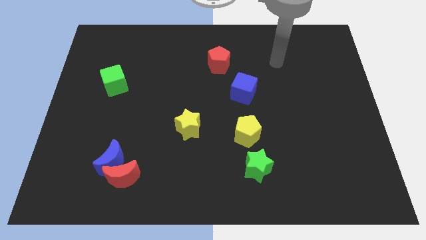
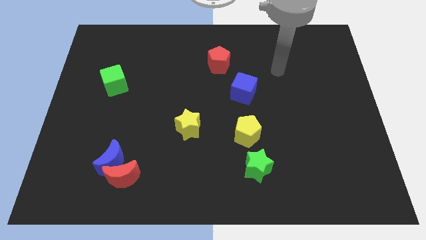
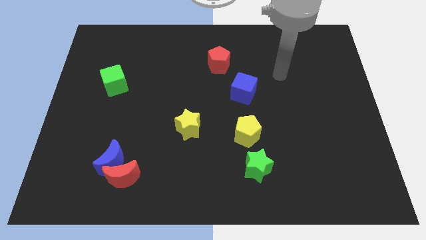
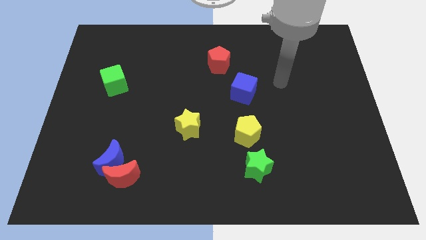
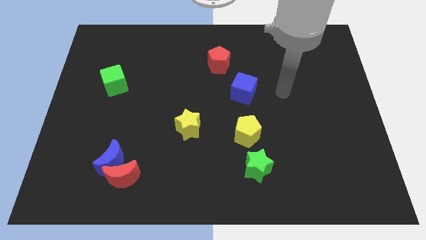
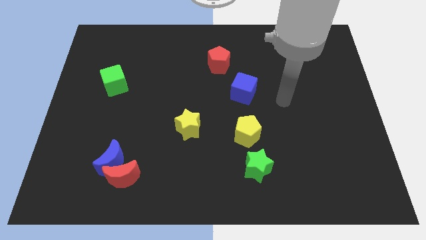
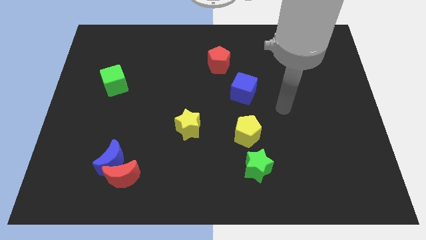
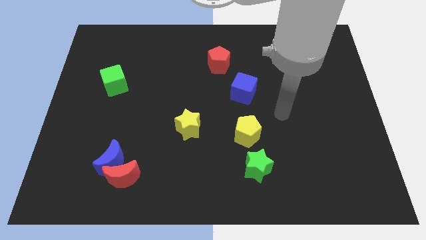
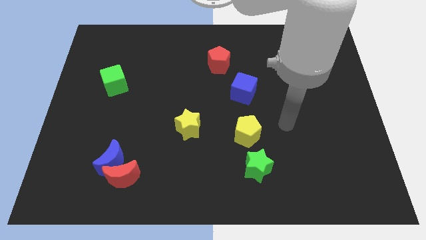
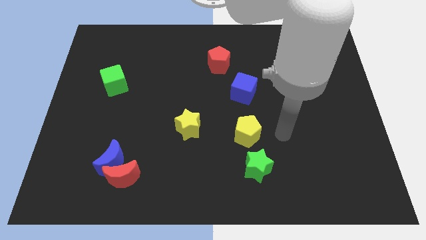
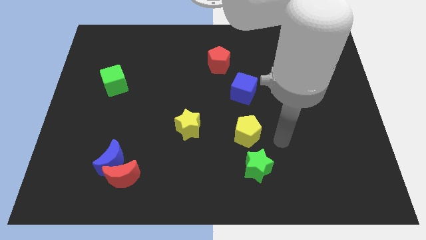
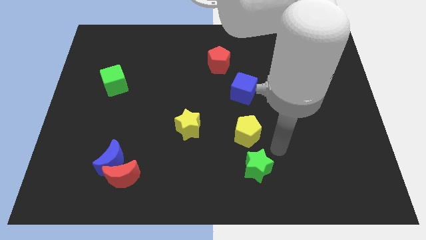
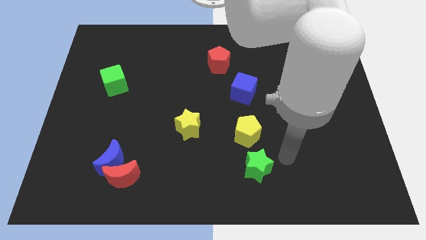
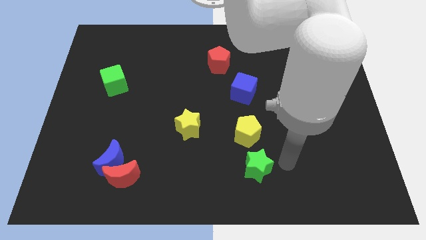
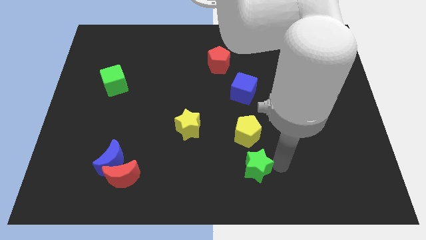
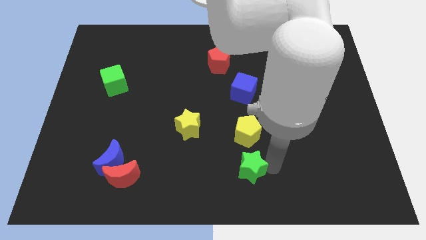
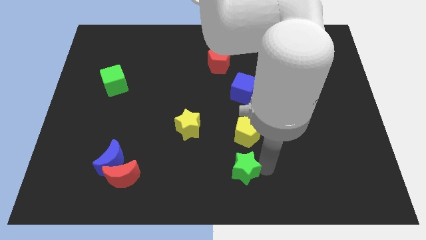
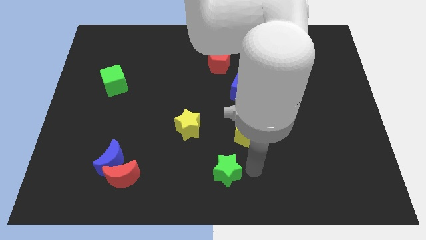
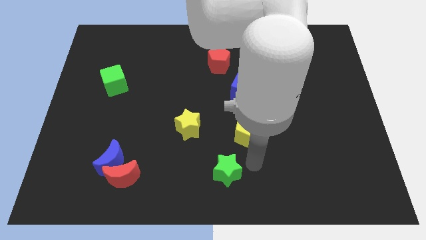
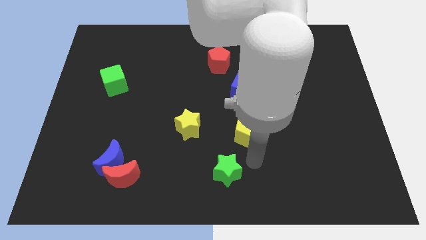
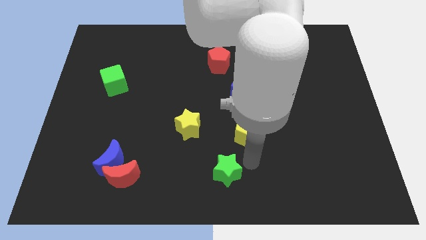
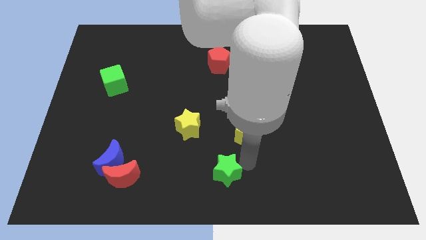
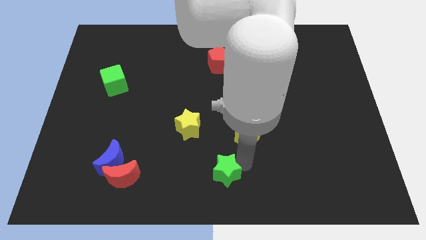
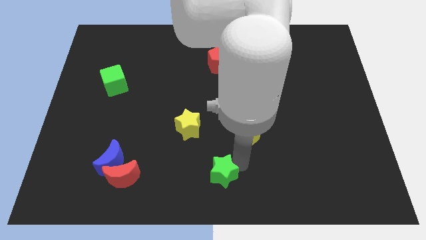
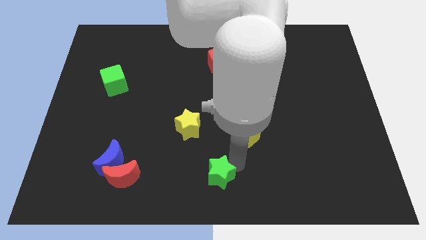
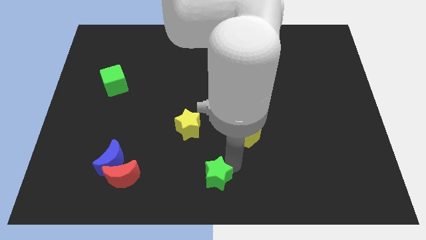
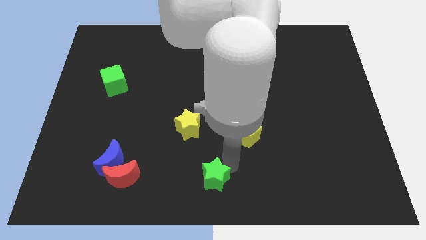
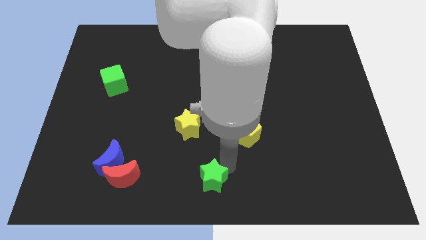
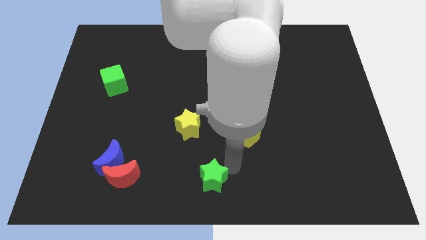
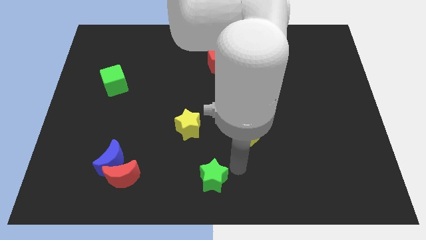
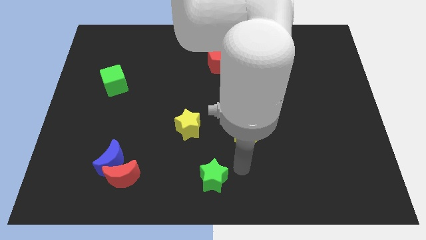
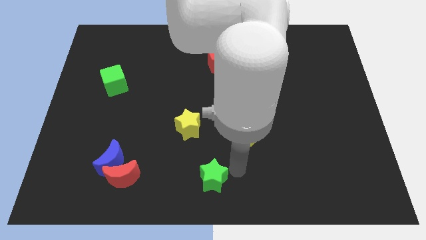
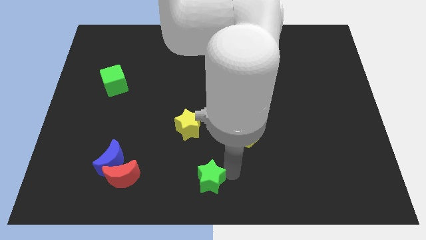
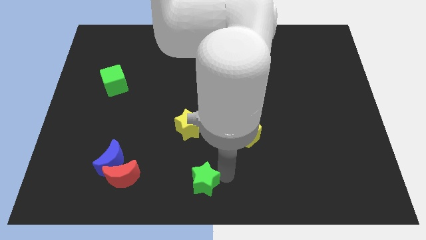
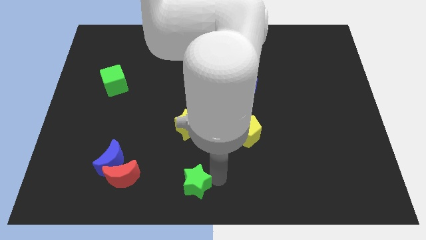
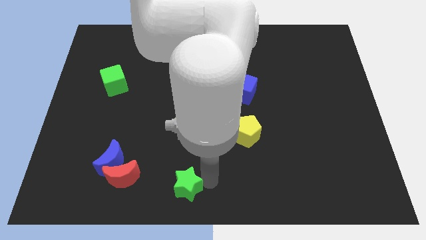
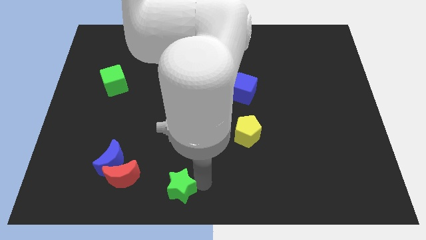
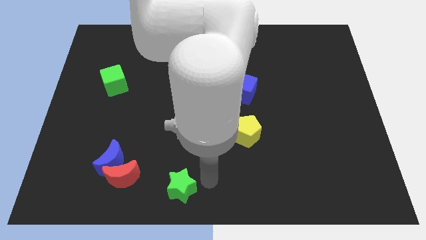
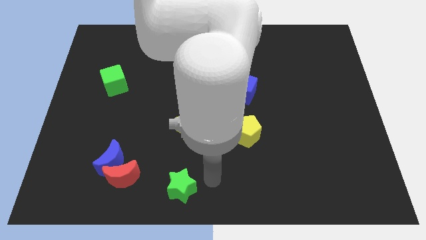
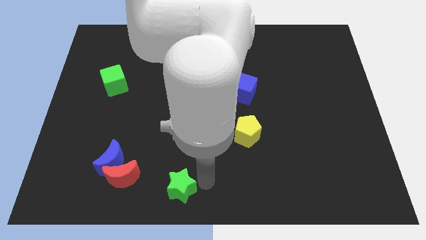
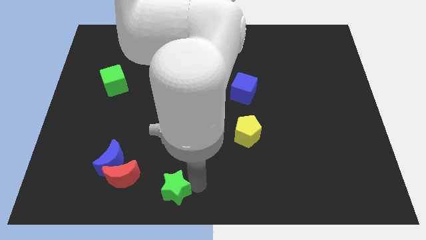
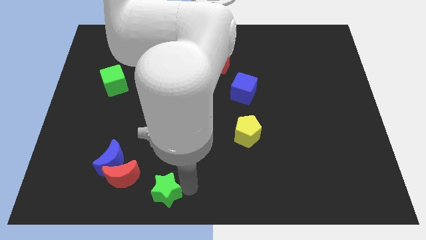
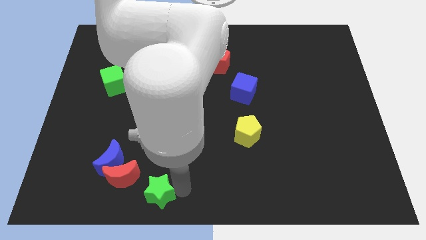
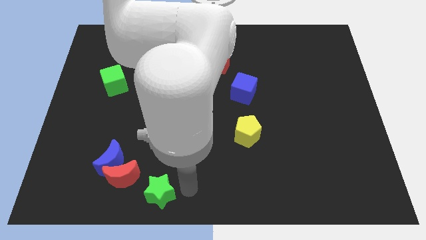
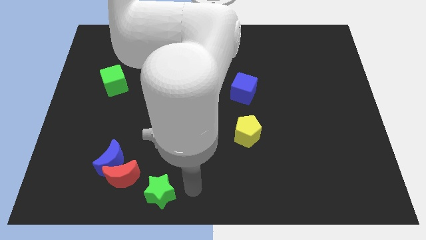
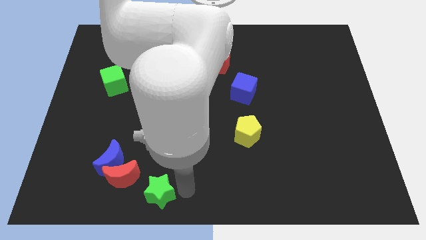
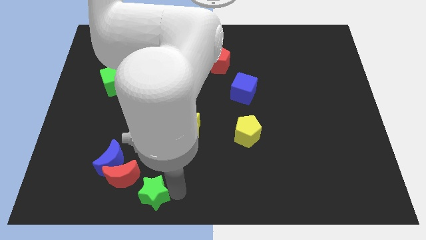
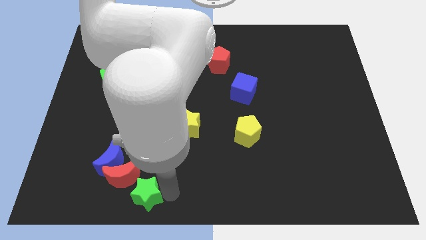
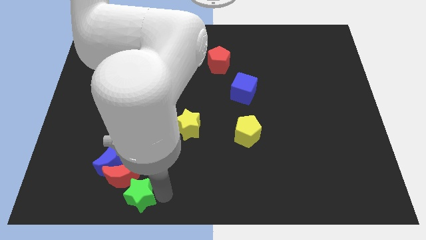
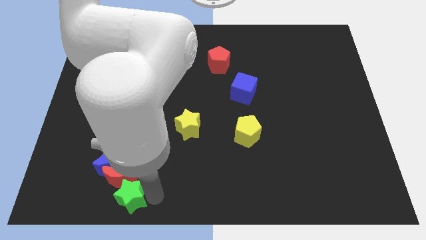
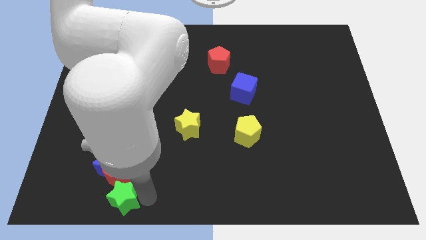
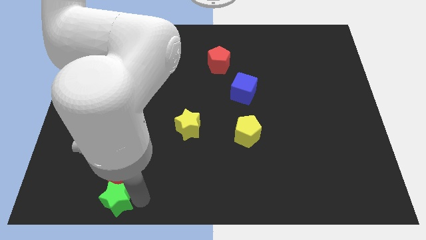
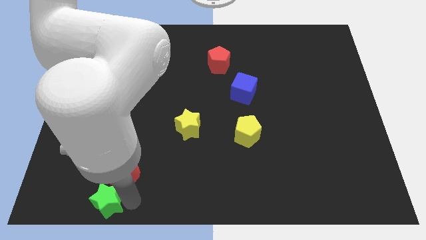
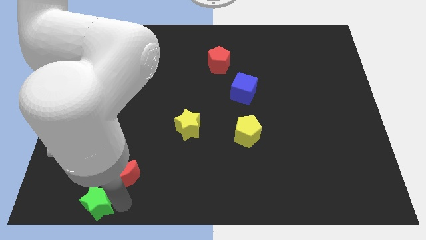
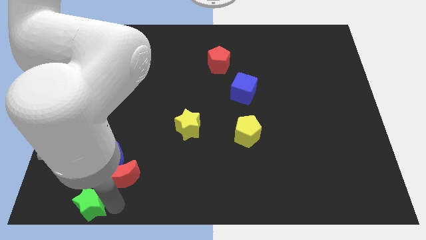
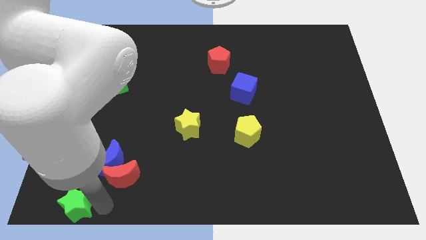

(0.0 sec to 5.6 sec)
slide the green star to the bottom left of the board

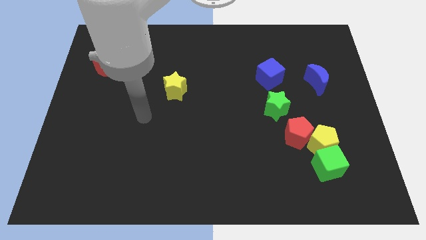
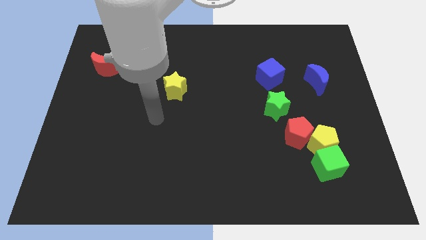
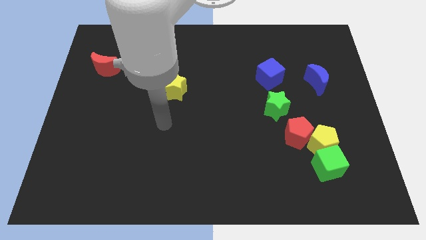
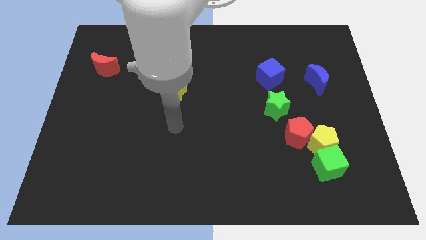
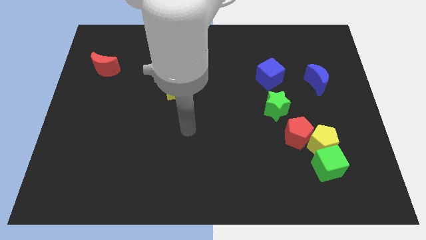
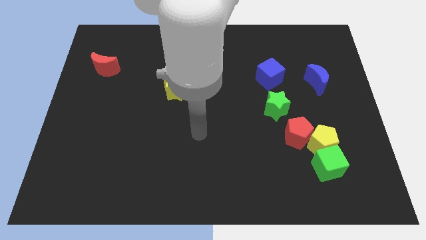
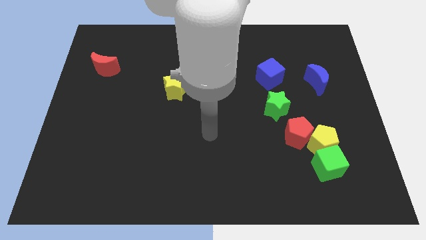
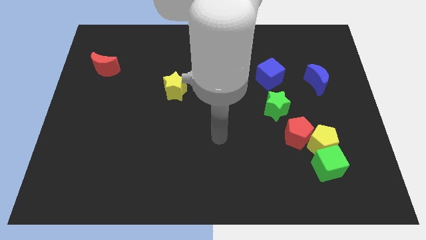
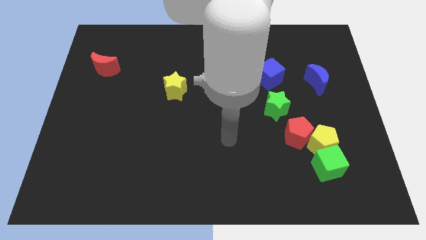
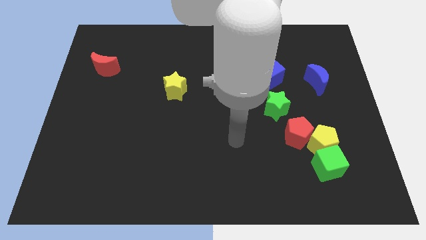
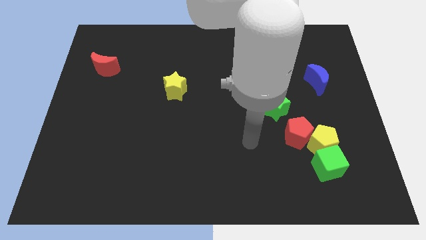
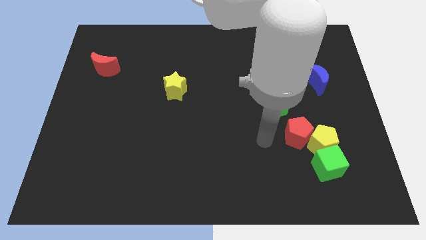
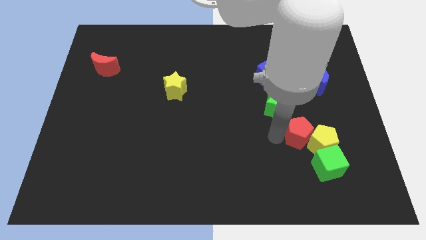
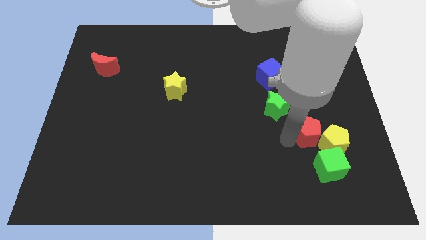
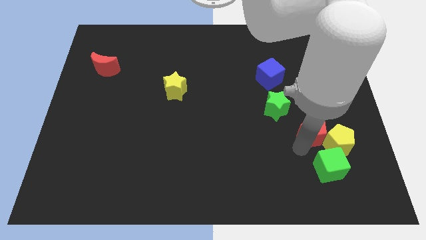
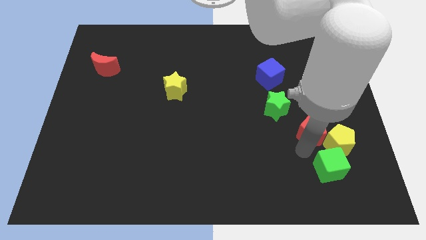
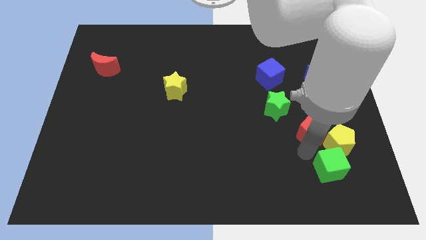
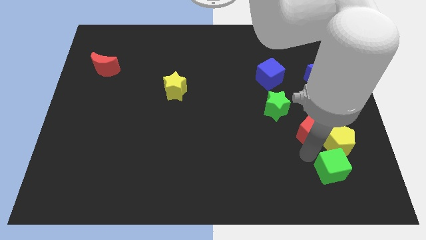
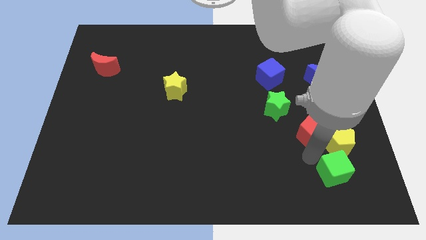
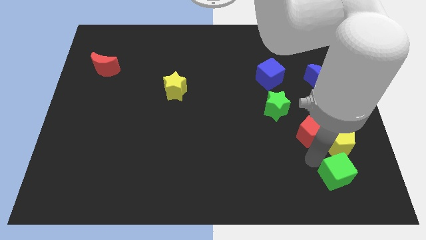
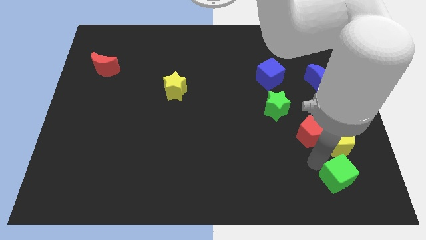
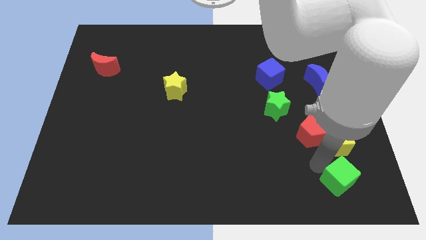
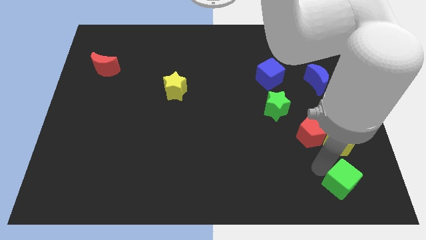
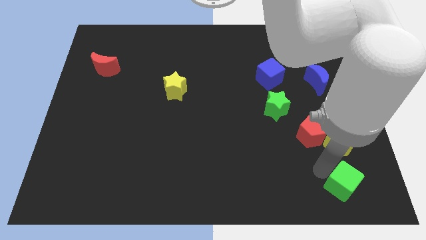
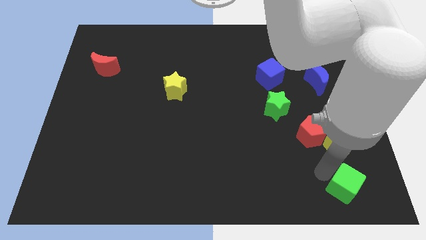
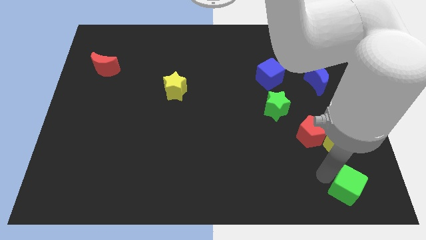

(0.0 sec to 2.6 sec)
put the green cube to the bottom right of the board
